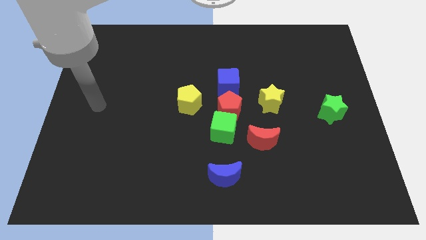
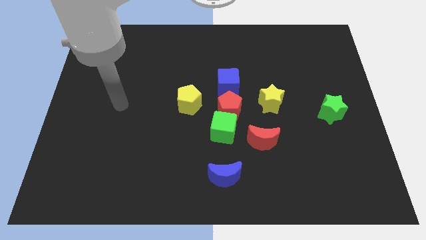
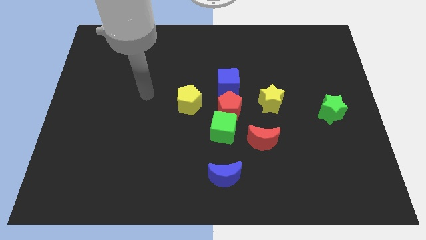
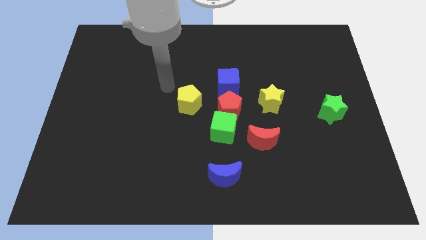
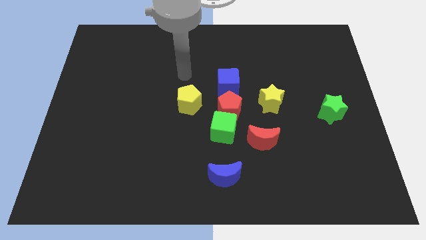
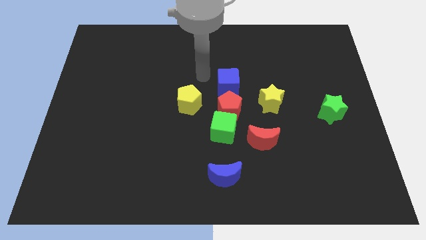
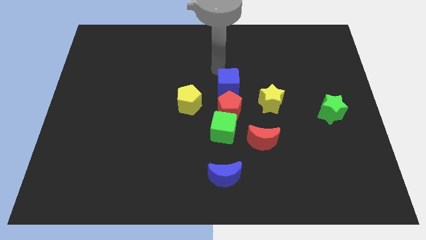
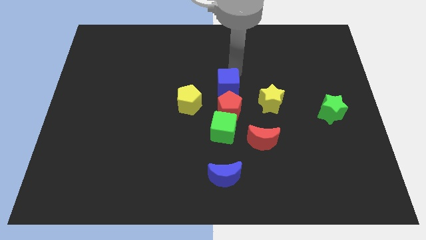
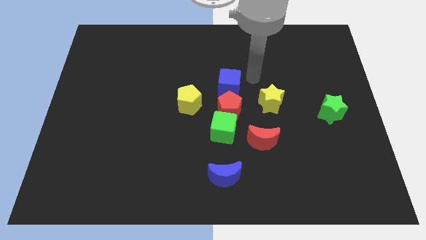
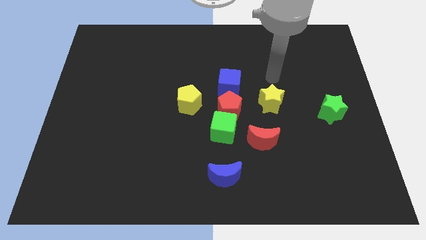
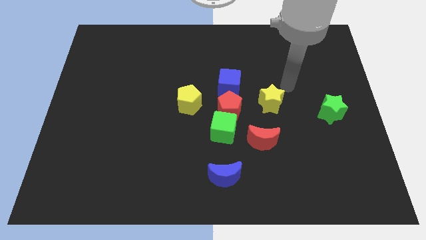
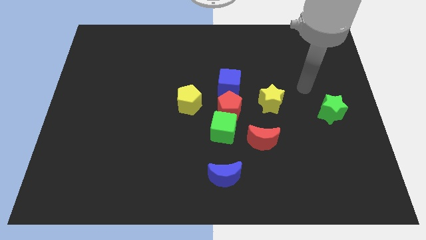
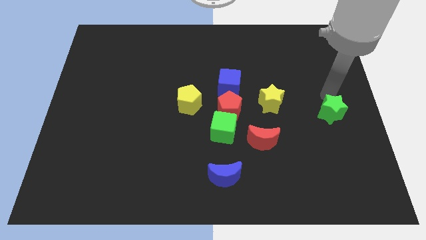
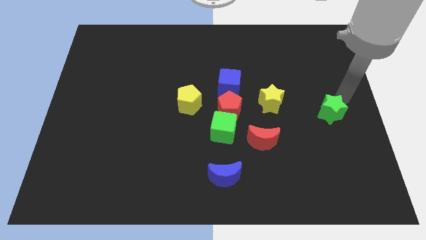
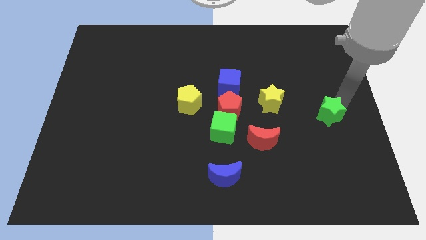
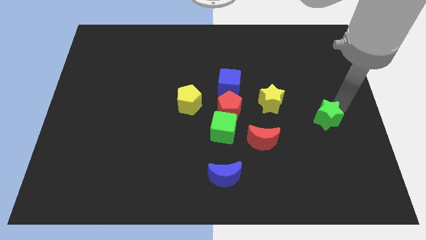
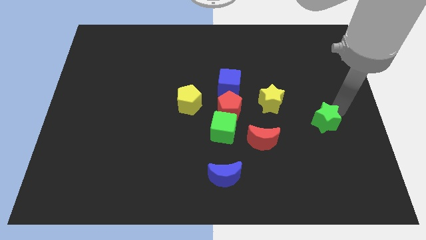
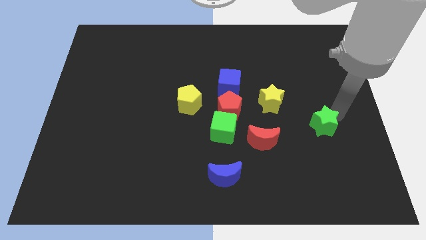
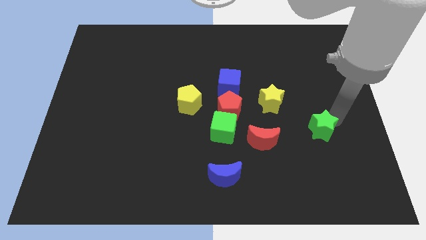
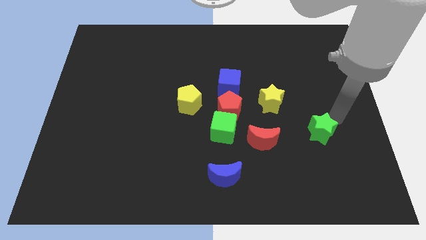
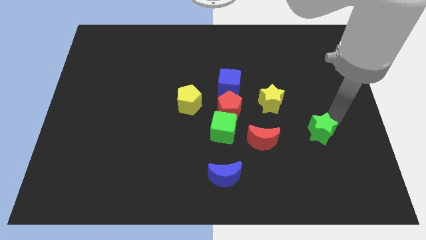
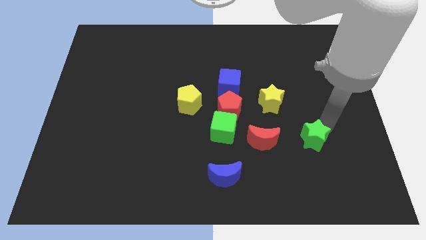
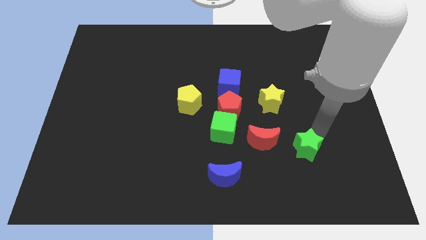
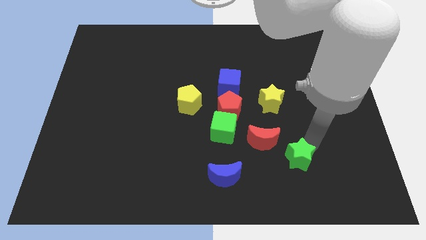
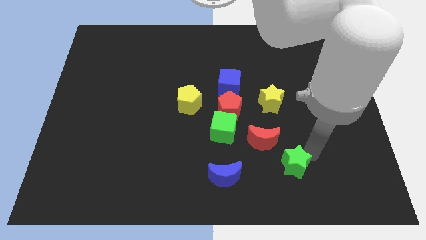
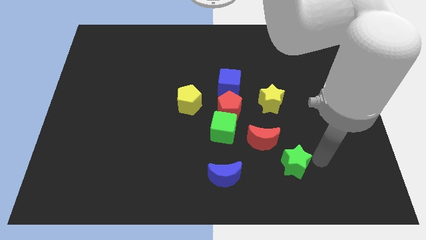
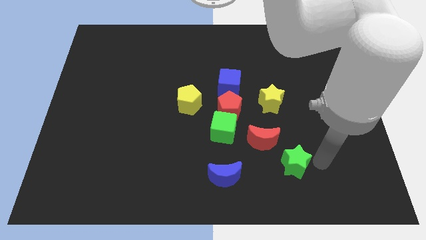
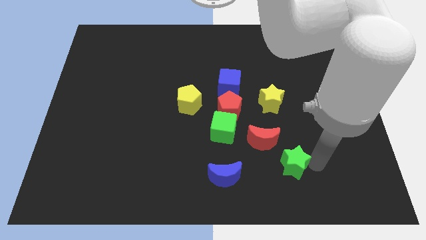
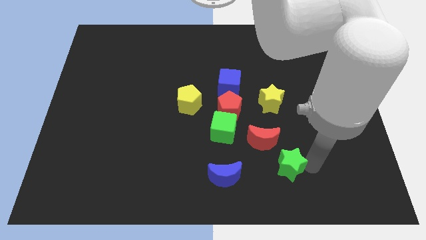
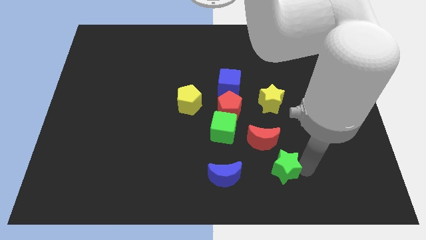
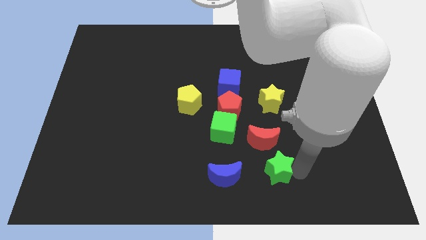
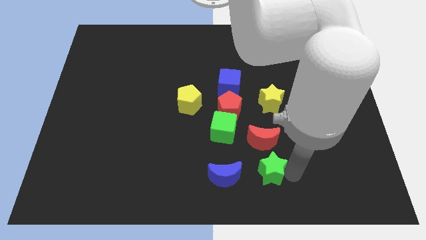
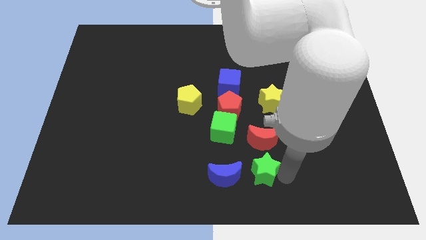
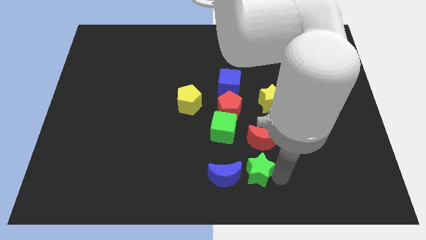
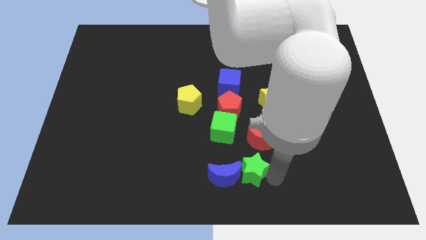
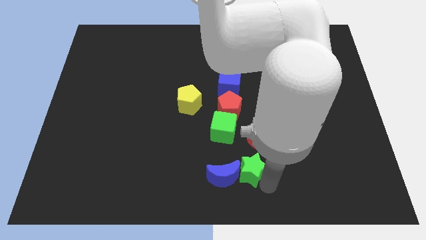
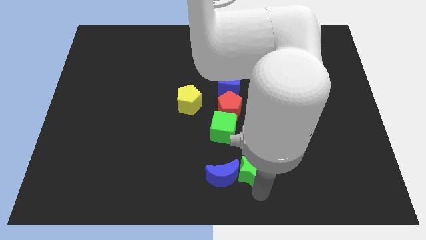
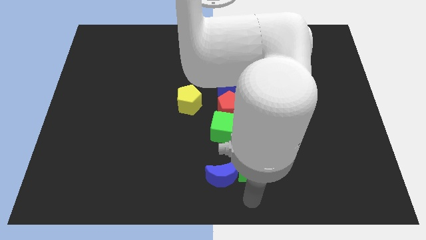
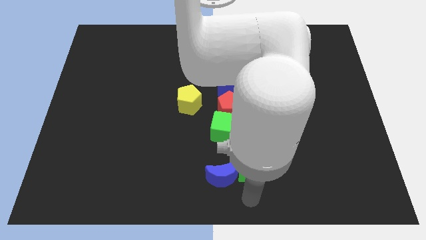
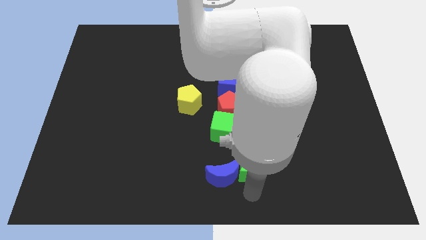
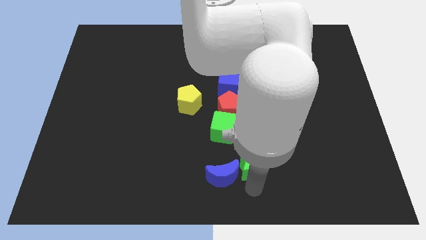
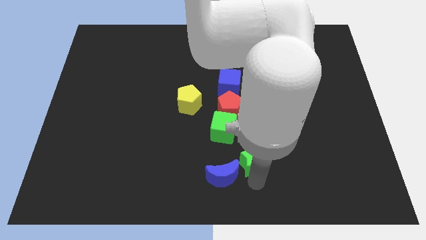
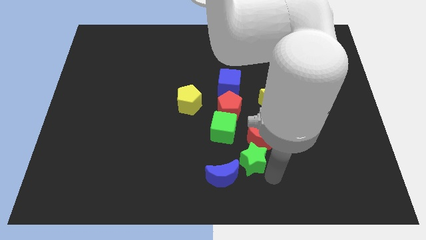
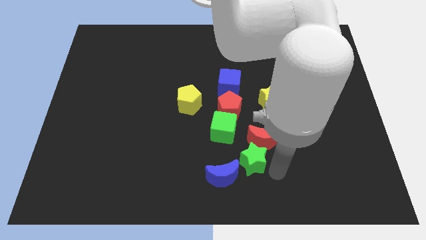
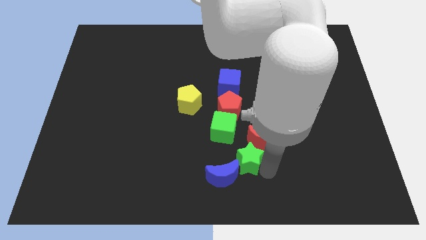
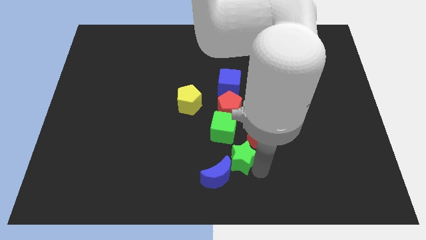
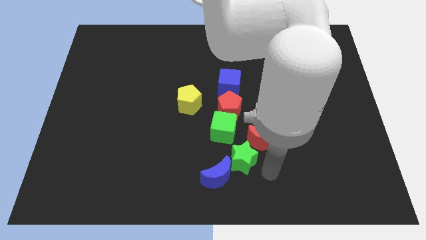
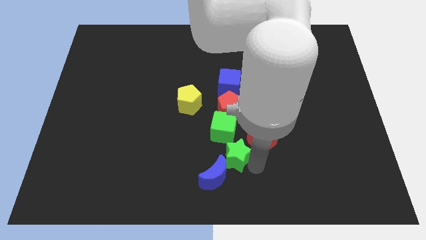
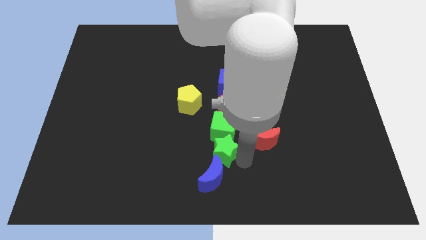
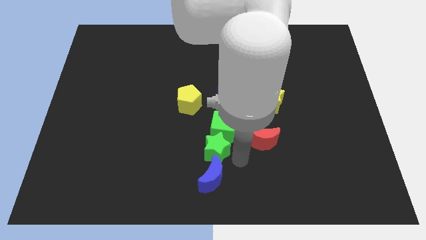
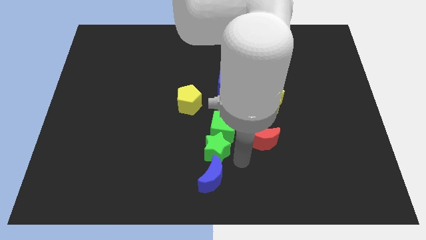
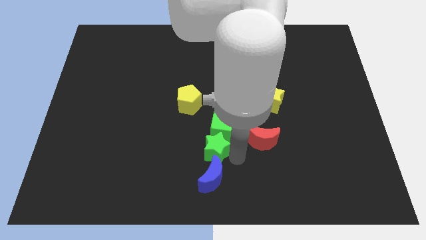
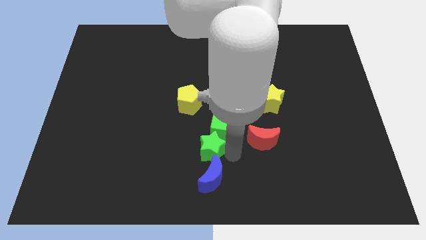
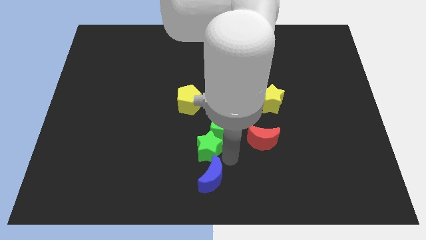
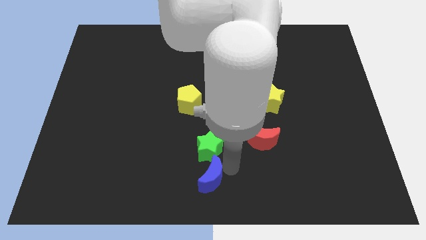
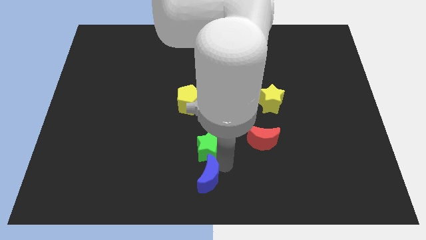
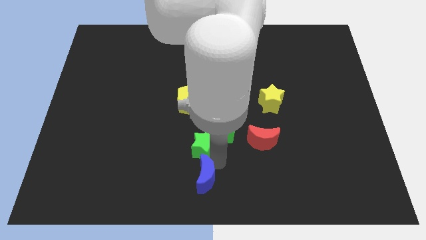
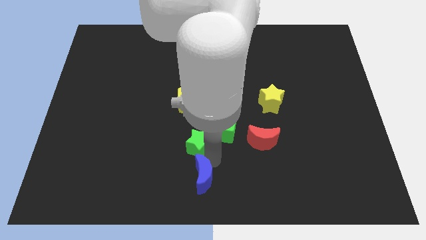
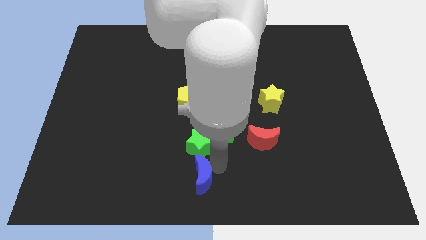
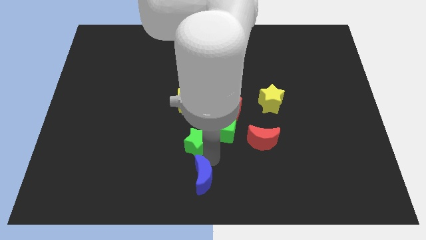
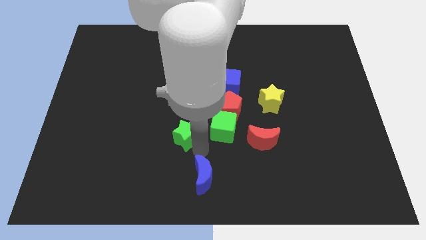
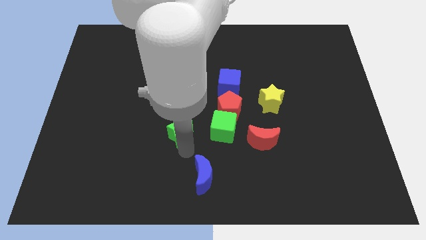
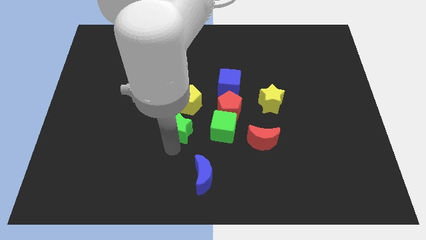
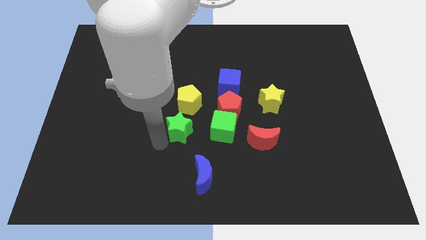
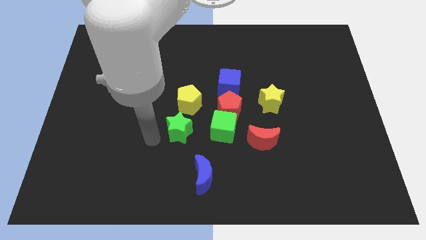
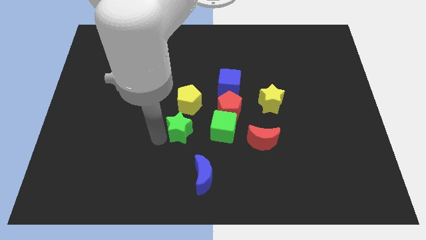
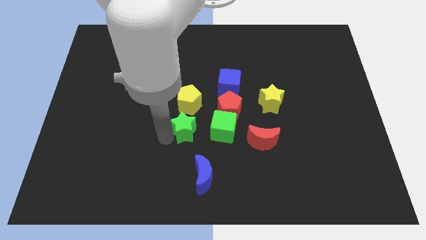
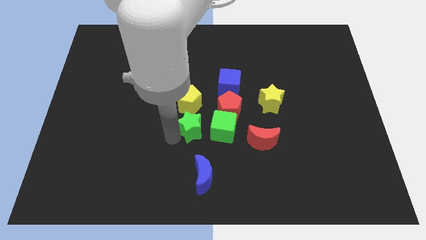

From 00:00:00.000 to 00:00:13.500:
put the green star to the bottom right side of the yellow pentagon

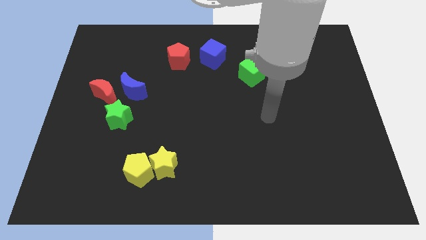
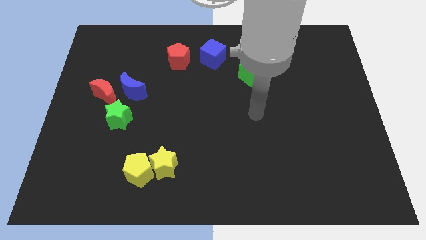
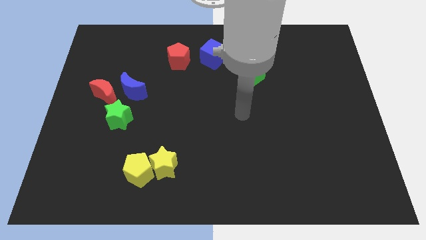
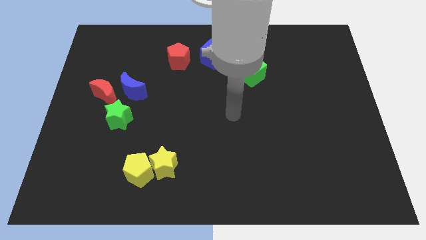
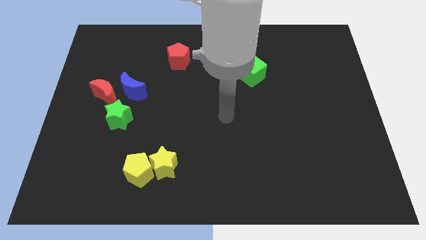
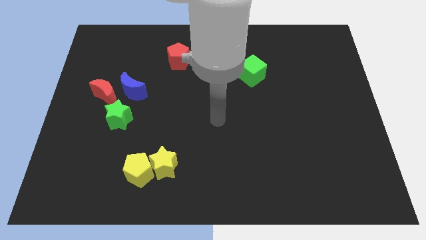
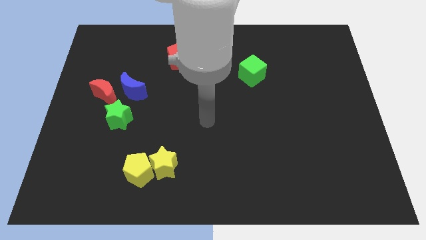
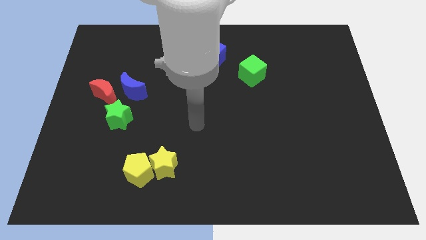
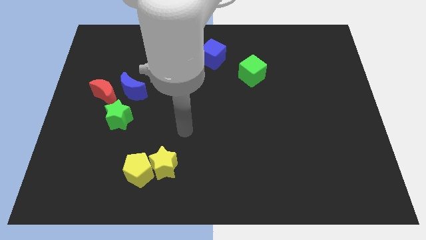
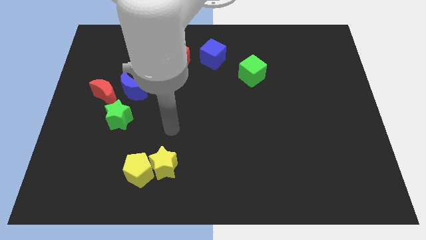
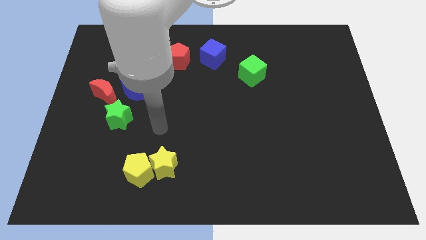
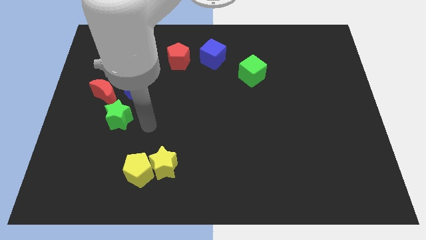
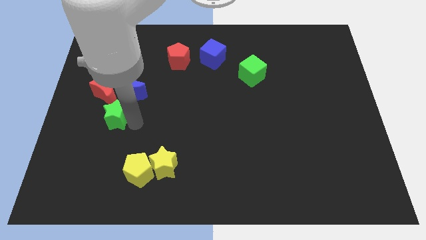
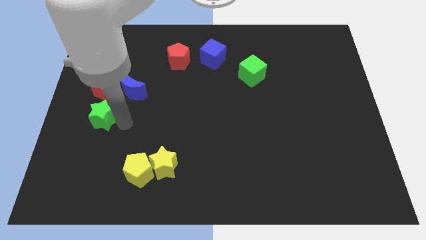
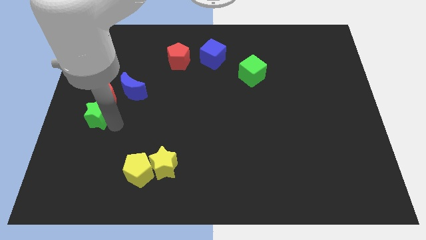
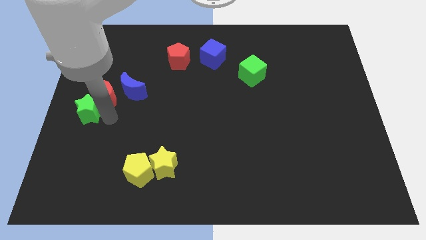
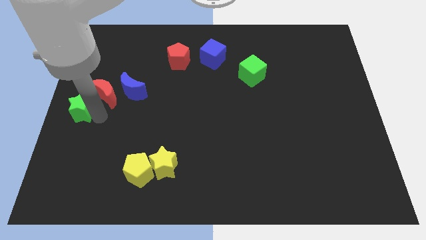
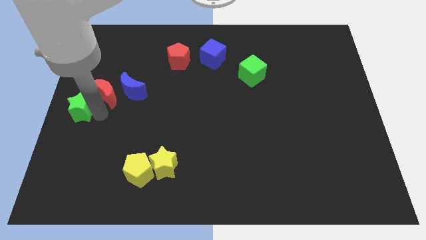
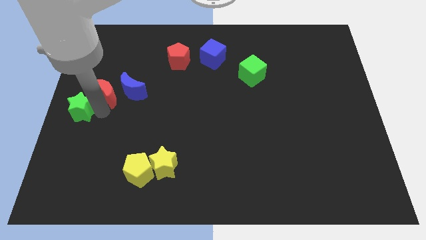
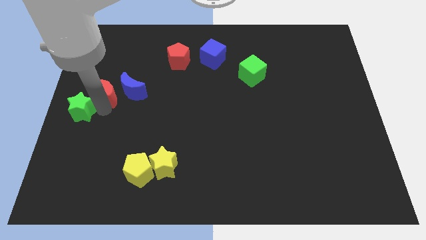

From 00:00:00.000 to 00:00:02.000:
put the red moon to the top left of the blue moon
